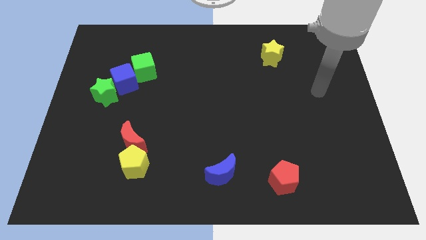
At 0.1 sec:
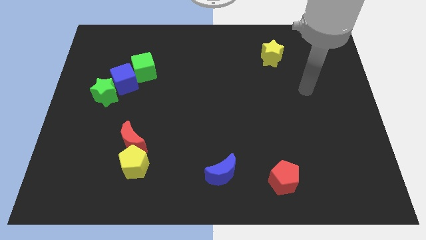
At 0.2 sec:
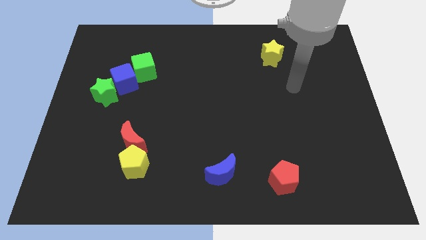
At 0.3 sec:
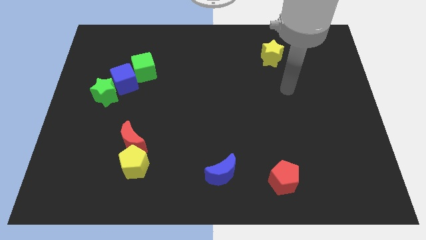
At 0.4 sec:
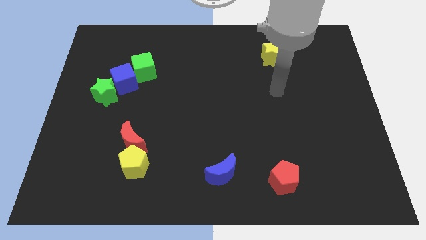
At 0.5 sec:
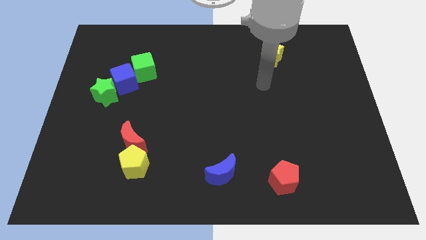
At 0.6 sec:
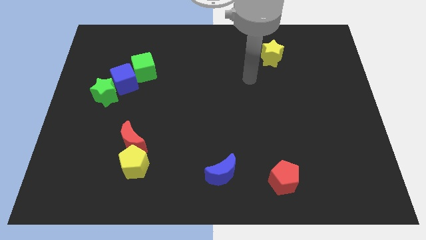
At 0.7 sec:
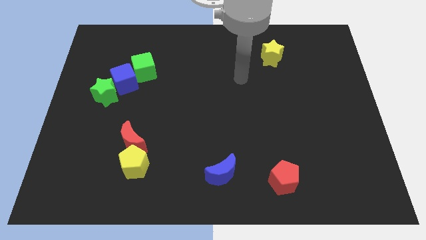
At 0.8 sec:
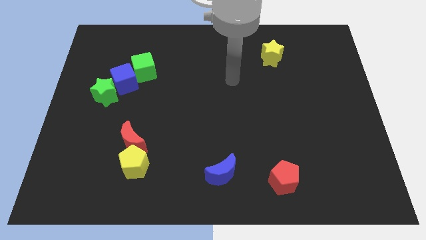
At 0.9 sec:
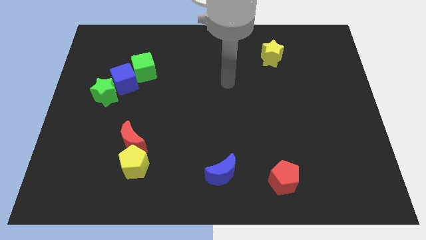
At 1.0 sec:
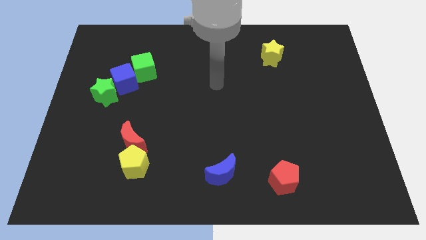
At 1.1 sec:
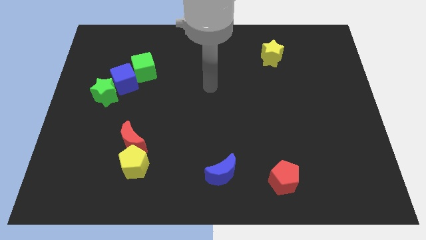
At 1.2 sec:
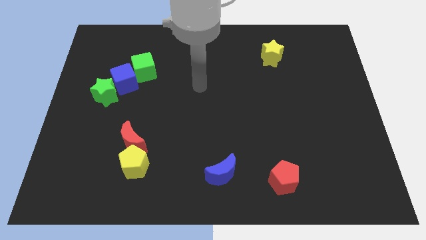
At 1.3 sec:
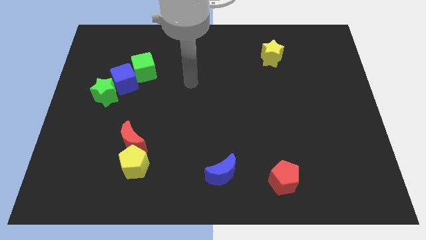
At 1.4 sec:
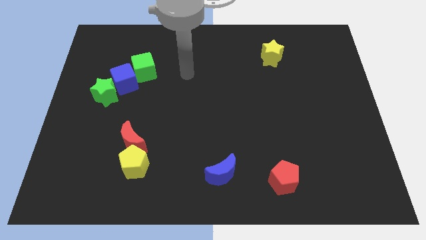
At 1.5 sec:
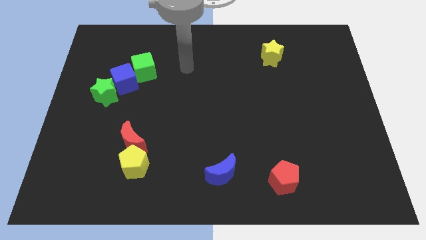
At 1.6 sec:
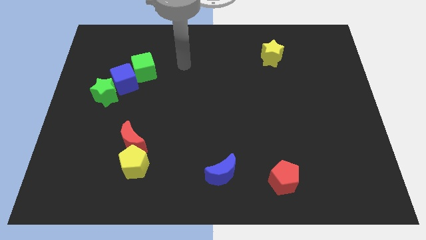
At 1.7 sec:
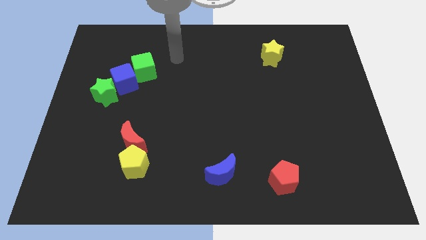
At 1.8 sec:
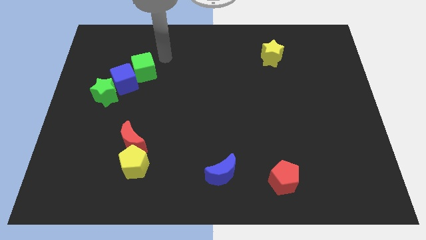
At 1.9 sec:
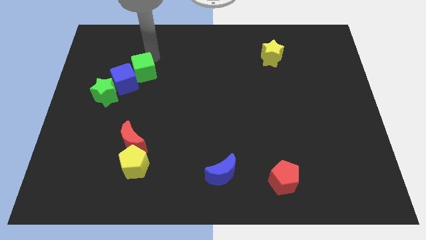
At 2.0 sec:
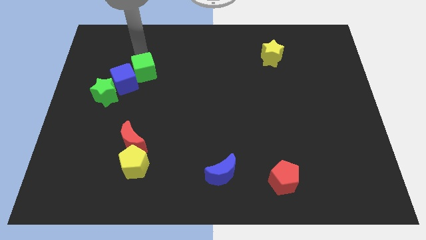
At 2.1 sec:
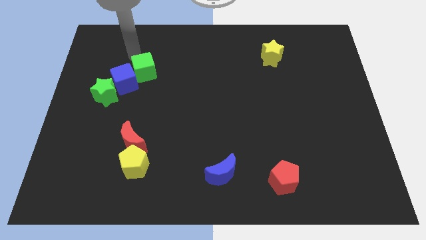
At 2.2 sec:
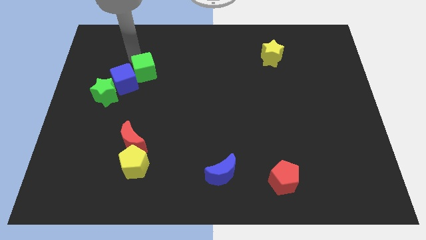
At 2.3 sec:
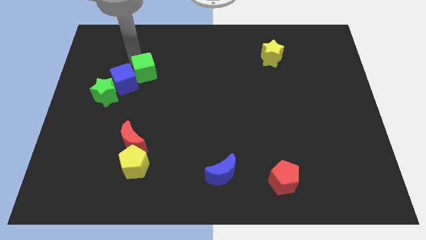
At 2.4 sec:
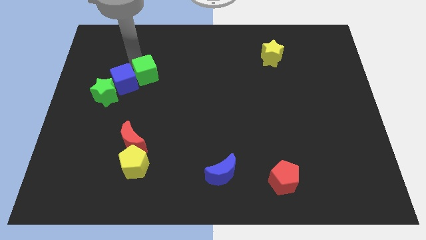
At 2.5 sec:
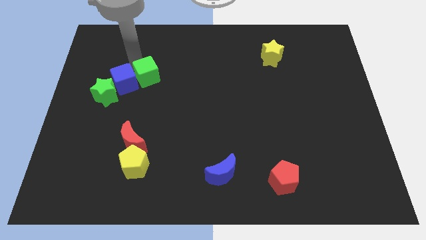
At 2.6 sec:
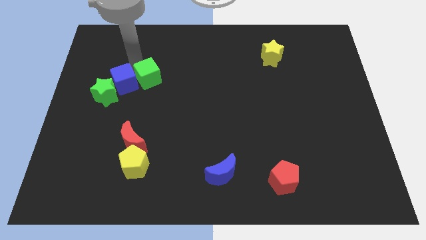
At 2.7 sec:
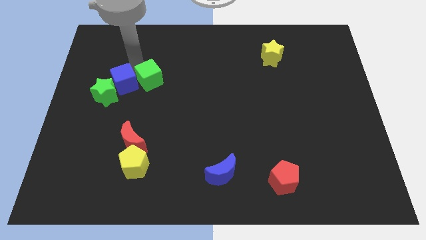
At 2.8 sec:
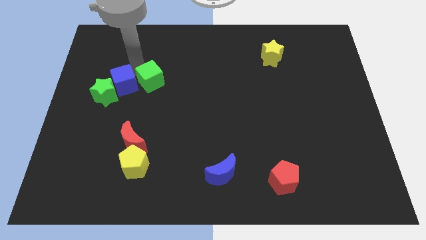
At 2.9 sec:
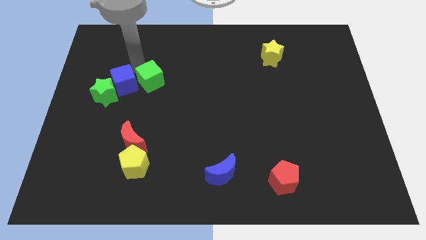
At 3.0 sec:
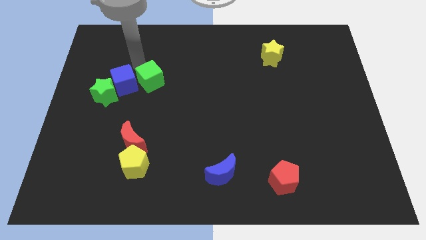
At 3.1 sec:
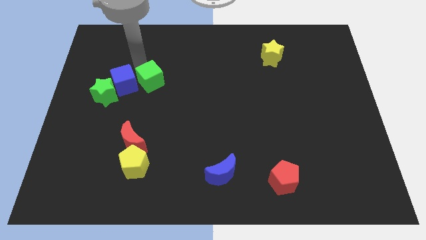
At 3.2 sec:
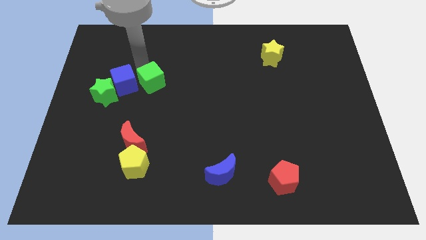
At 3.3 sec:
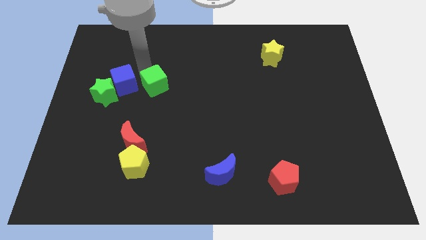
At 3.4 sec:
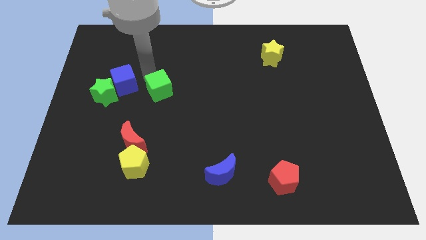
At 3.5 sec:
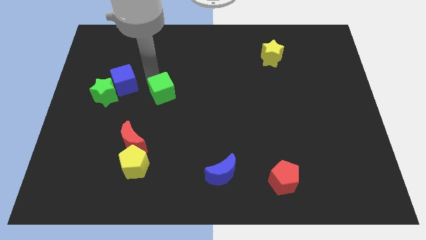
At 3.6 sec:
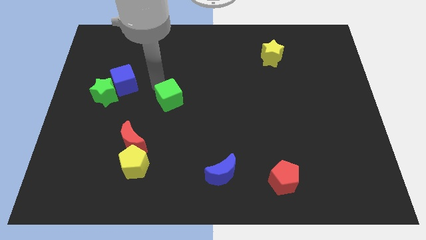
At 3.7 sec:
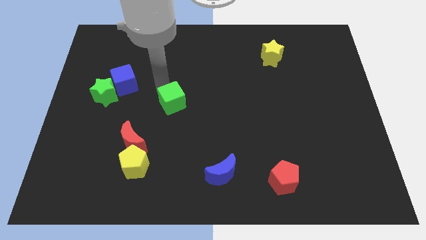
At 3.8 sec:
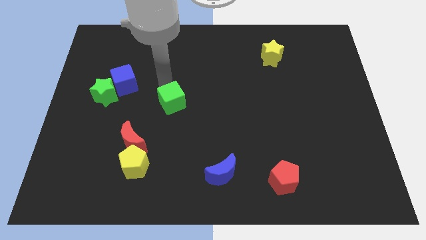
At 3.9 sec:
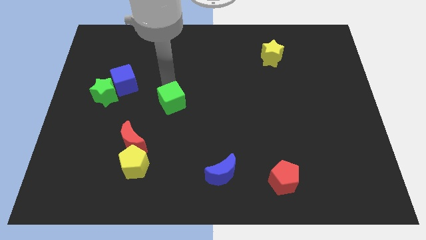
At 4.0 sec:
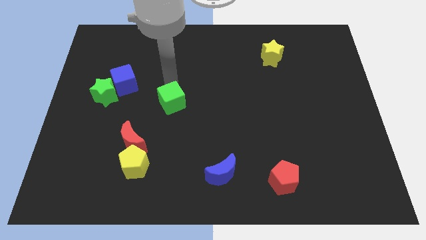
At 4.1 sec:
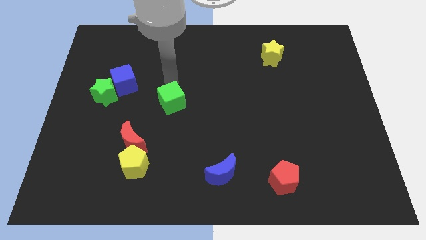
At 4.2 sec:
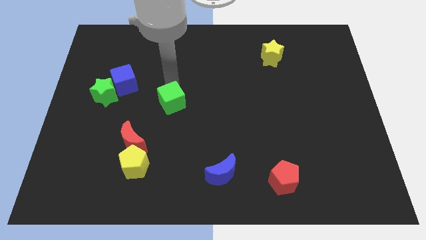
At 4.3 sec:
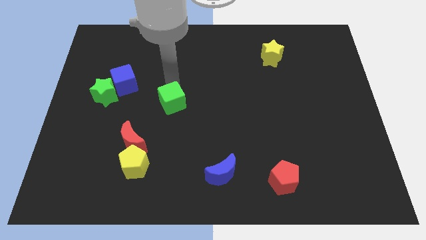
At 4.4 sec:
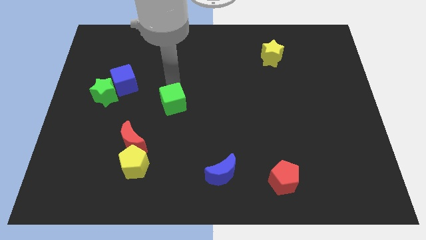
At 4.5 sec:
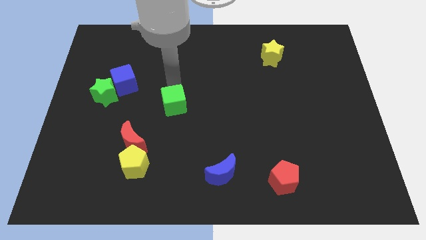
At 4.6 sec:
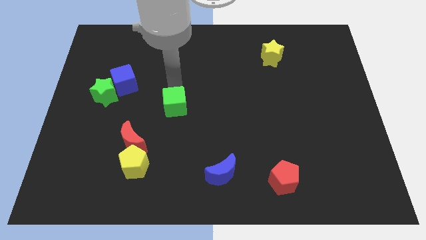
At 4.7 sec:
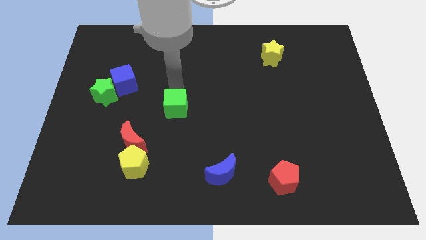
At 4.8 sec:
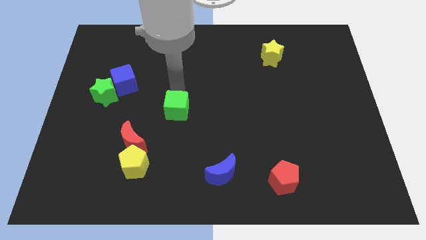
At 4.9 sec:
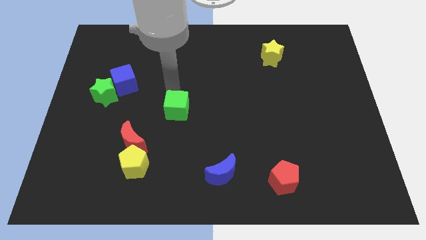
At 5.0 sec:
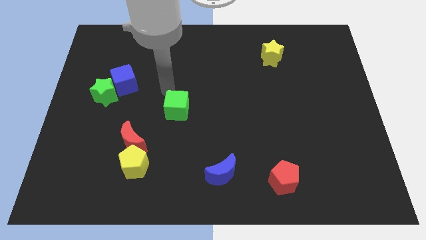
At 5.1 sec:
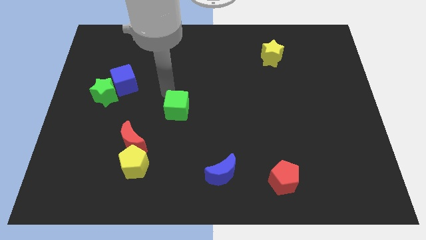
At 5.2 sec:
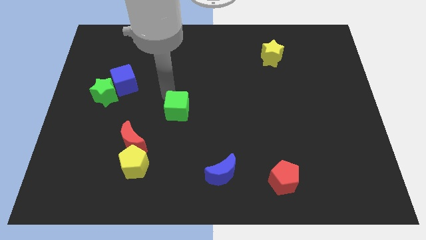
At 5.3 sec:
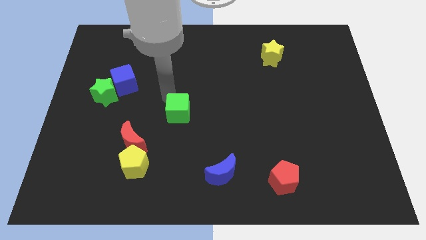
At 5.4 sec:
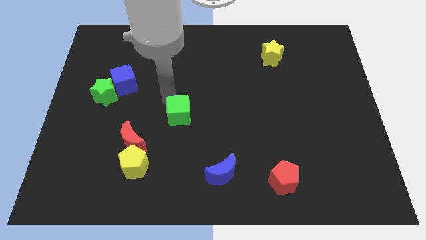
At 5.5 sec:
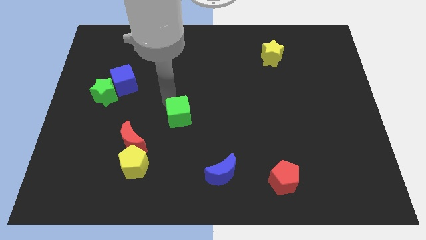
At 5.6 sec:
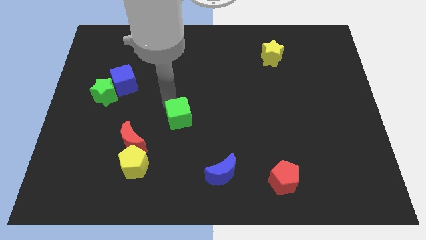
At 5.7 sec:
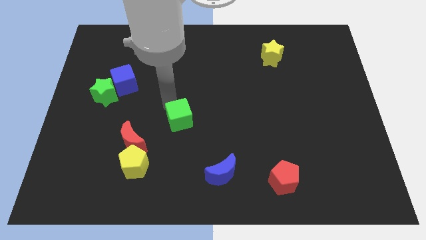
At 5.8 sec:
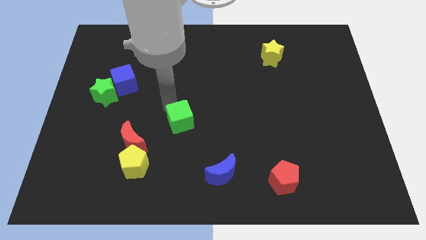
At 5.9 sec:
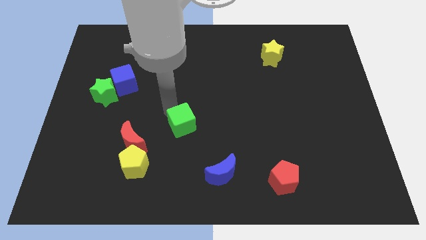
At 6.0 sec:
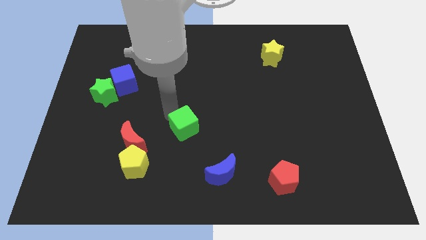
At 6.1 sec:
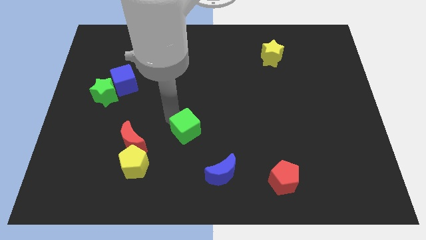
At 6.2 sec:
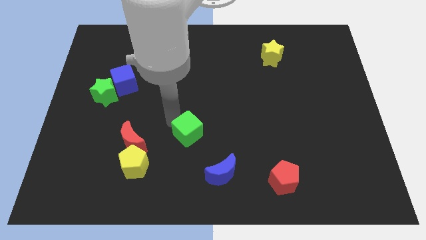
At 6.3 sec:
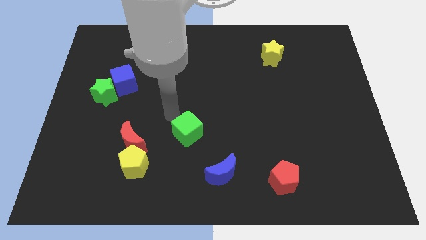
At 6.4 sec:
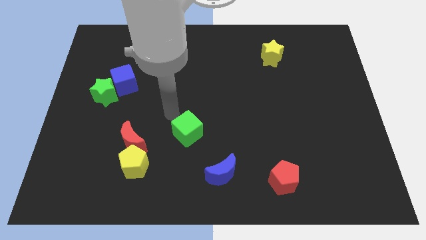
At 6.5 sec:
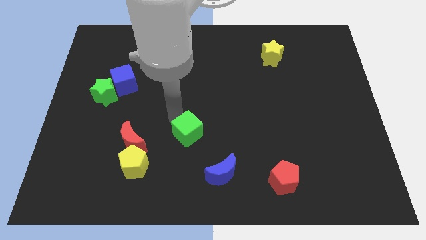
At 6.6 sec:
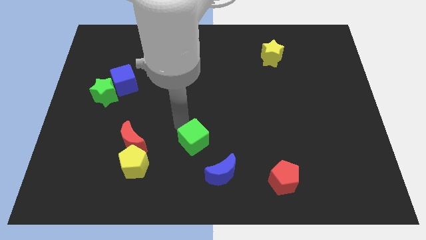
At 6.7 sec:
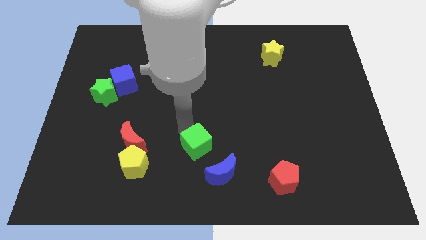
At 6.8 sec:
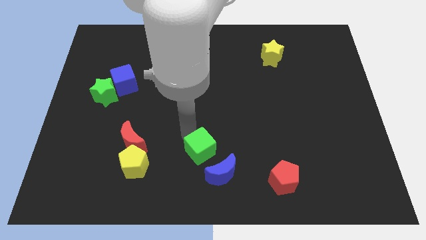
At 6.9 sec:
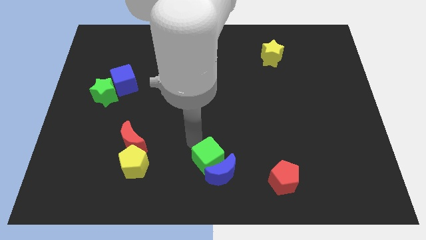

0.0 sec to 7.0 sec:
move the green cube towards the blue moon

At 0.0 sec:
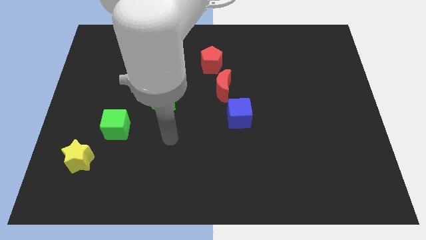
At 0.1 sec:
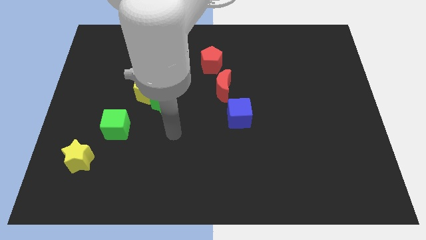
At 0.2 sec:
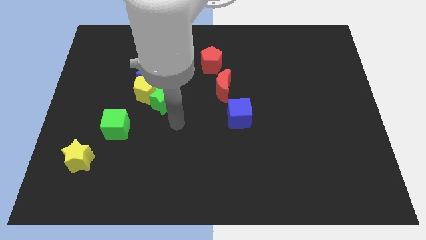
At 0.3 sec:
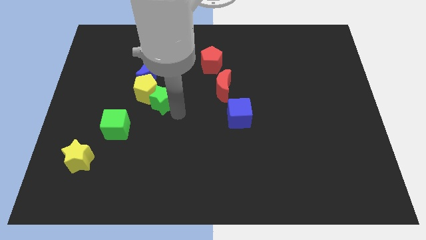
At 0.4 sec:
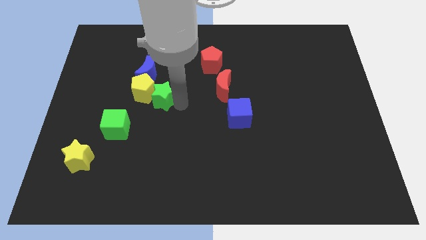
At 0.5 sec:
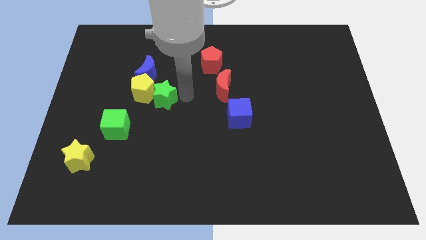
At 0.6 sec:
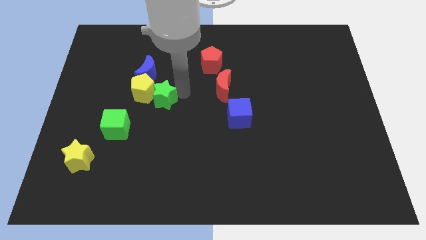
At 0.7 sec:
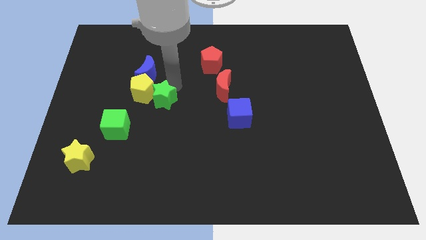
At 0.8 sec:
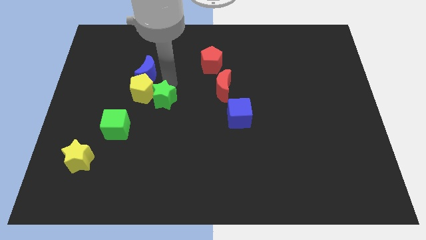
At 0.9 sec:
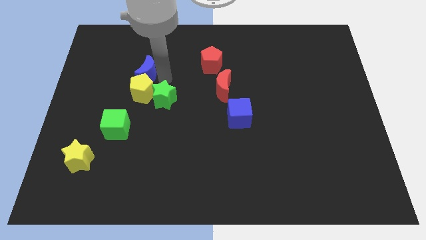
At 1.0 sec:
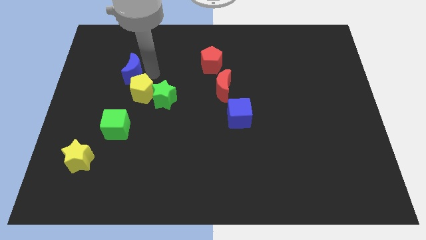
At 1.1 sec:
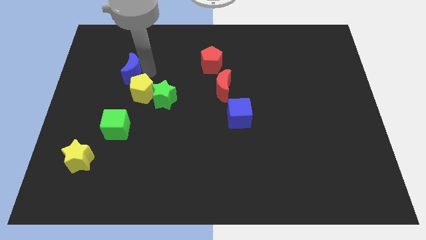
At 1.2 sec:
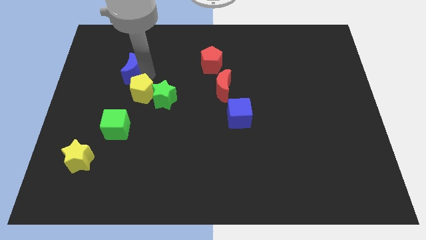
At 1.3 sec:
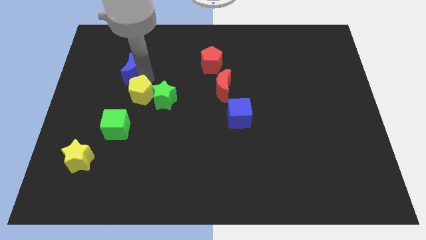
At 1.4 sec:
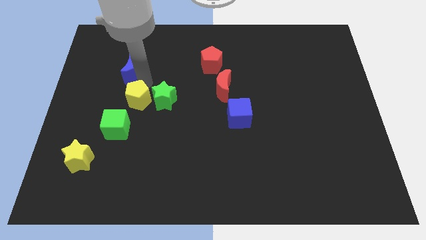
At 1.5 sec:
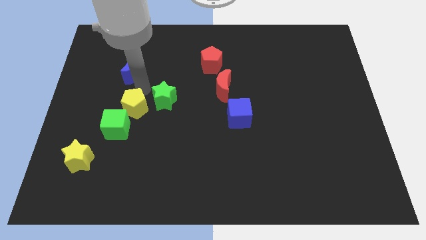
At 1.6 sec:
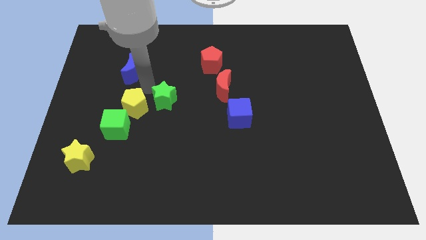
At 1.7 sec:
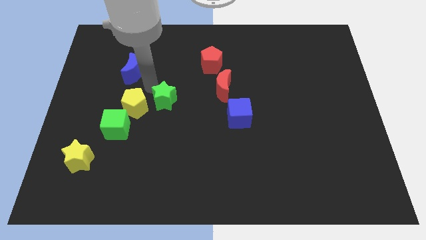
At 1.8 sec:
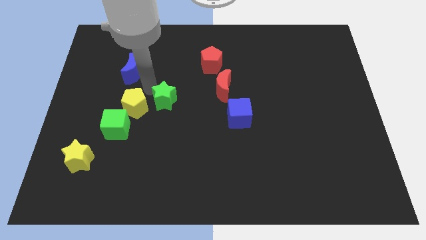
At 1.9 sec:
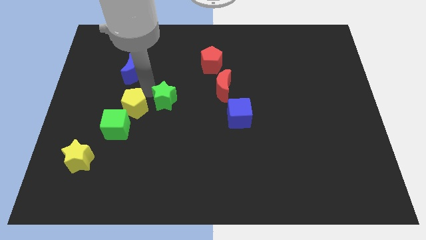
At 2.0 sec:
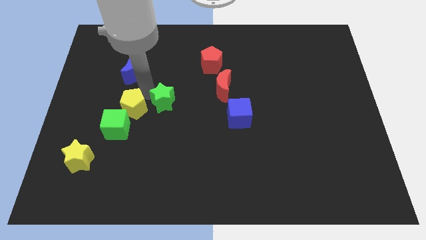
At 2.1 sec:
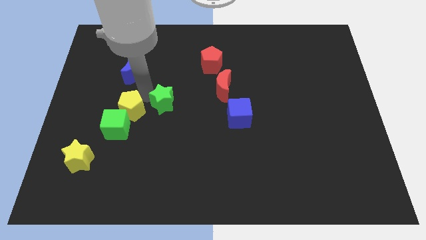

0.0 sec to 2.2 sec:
slide the yellow pentagon to the green cube
